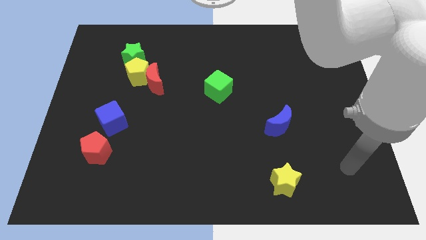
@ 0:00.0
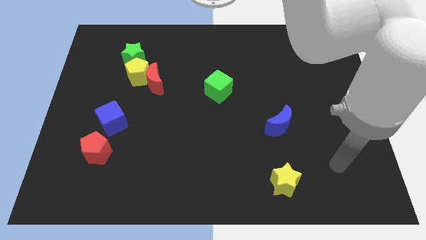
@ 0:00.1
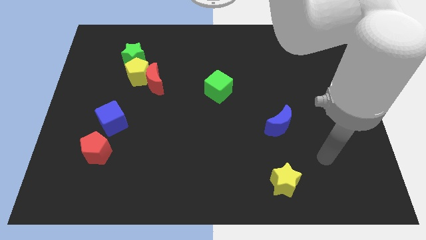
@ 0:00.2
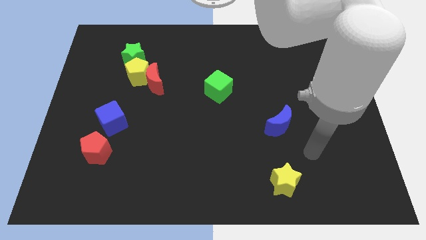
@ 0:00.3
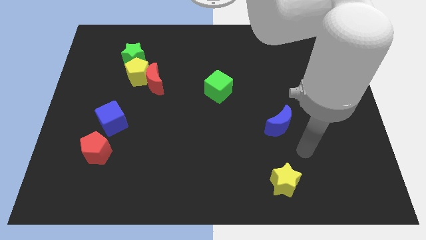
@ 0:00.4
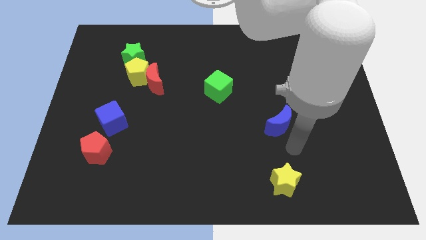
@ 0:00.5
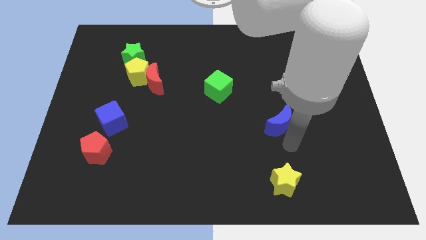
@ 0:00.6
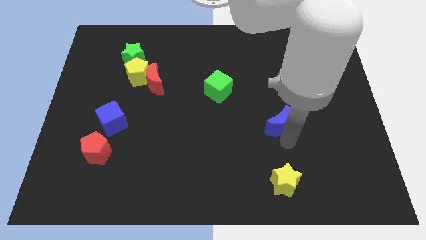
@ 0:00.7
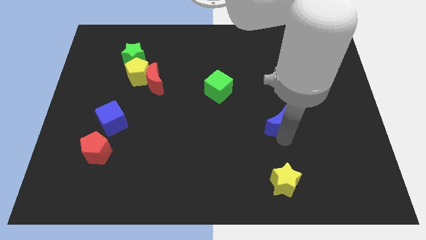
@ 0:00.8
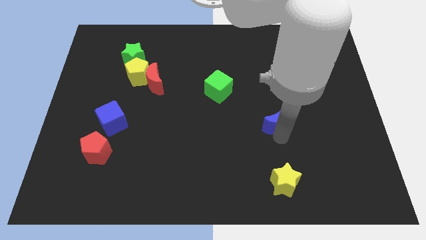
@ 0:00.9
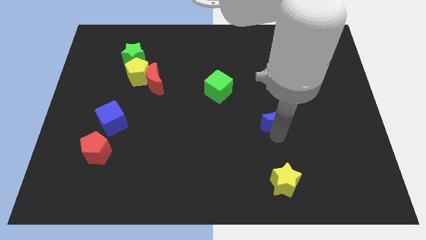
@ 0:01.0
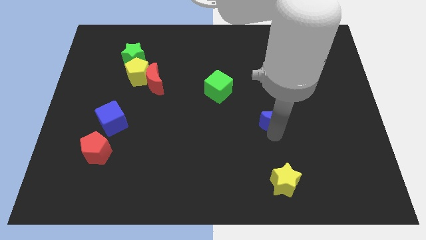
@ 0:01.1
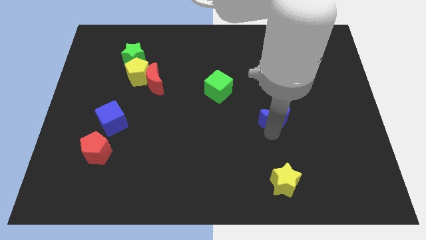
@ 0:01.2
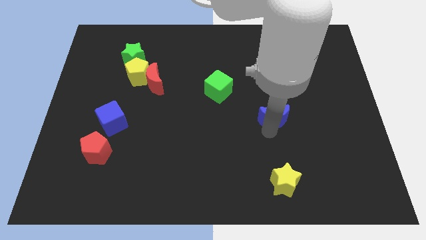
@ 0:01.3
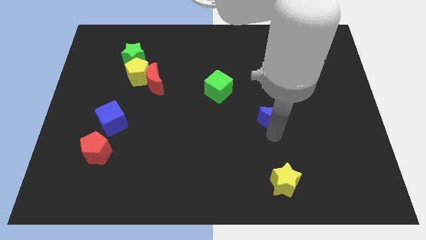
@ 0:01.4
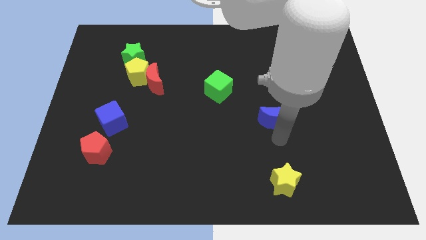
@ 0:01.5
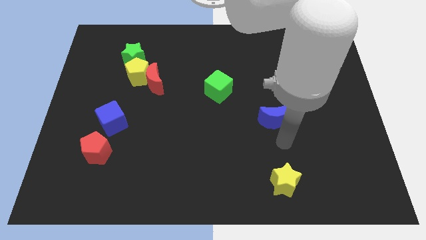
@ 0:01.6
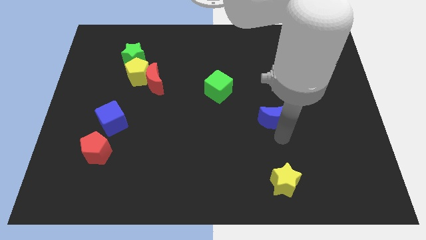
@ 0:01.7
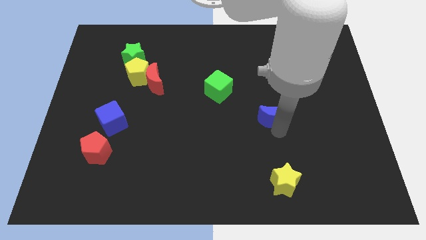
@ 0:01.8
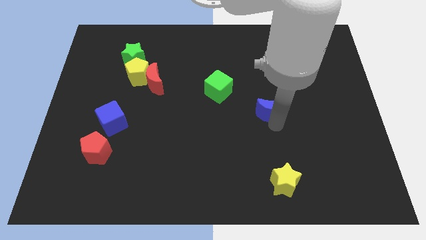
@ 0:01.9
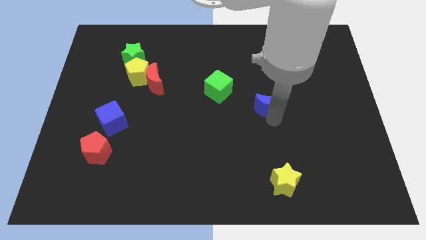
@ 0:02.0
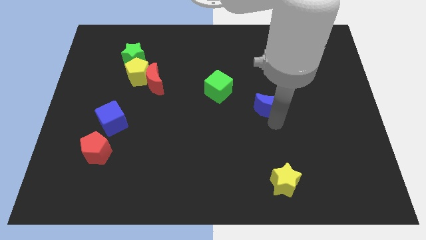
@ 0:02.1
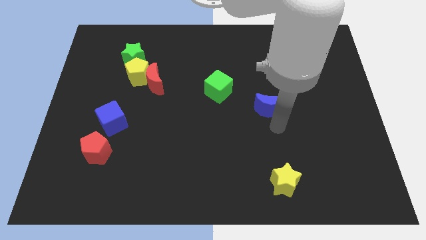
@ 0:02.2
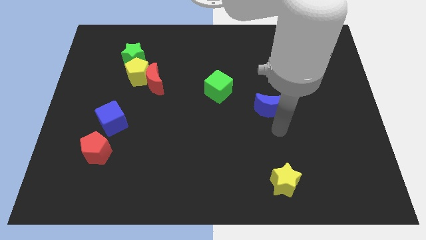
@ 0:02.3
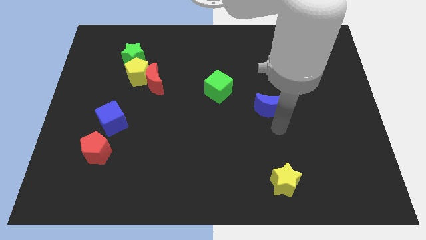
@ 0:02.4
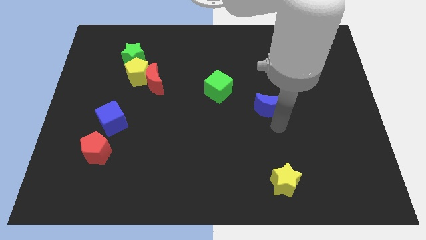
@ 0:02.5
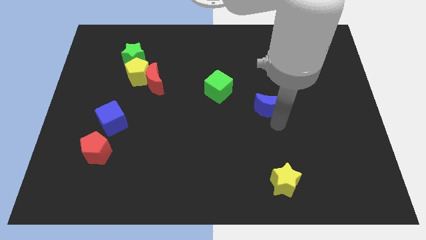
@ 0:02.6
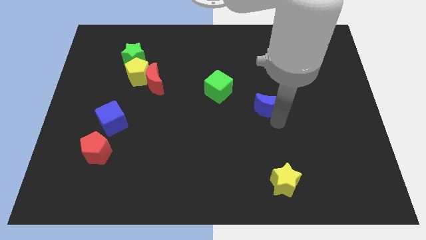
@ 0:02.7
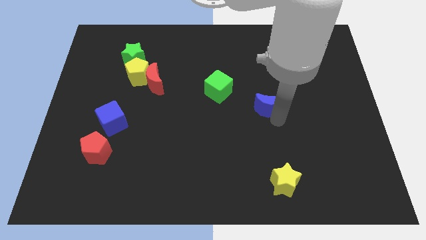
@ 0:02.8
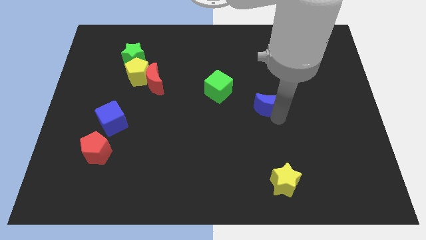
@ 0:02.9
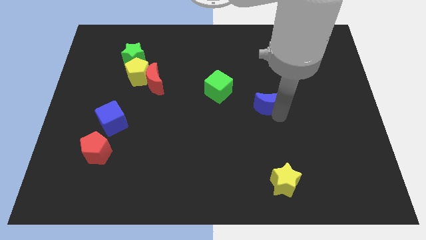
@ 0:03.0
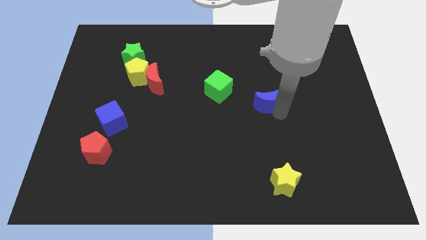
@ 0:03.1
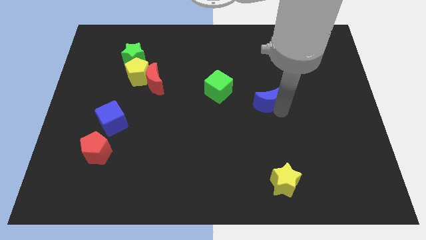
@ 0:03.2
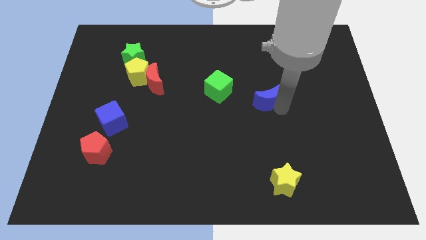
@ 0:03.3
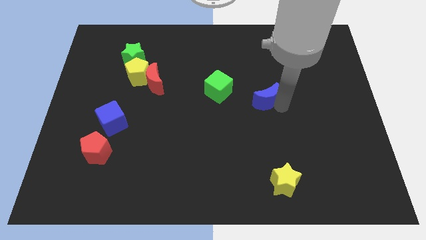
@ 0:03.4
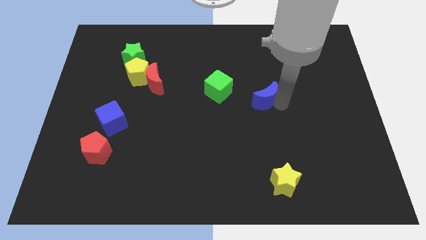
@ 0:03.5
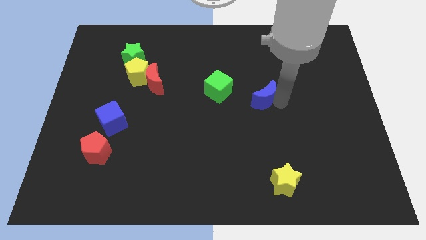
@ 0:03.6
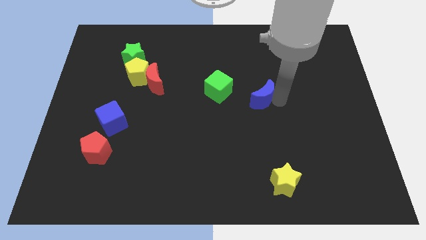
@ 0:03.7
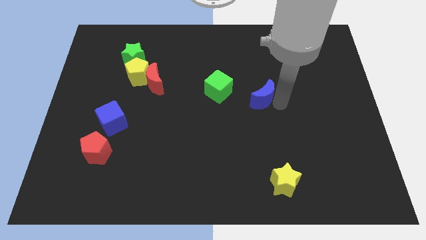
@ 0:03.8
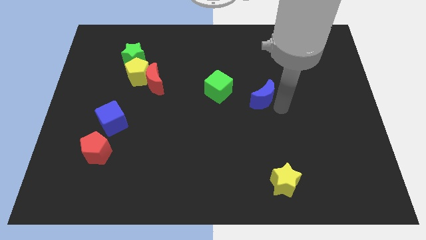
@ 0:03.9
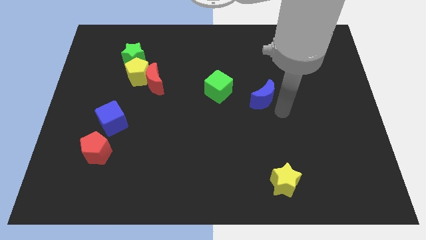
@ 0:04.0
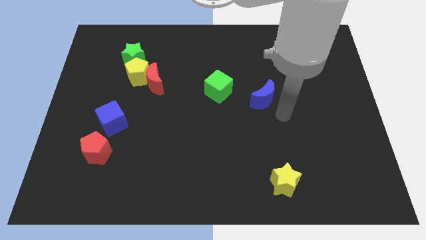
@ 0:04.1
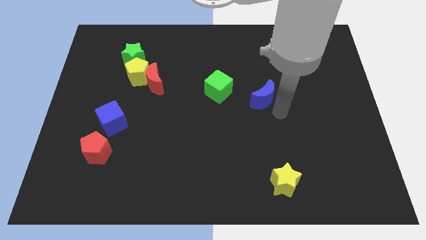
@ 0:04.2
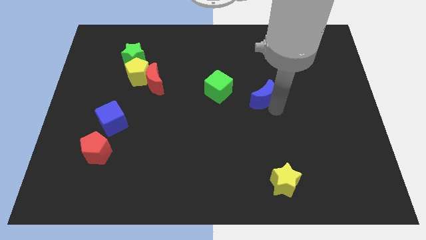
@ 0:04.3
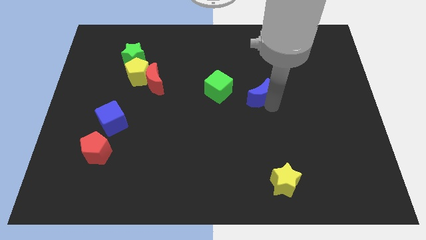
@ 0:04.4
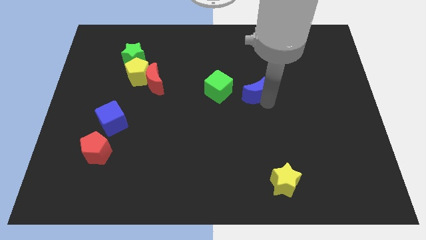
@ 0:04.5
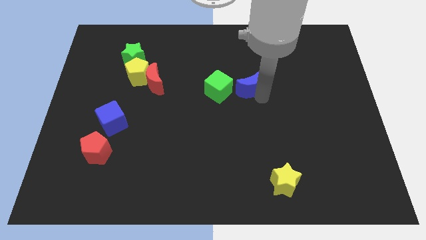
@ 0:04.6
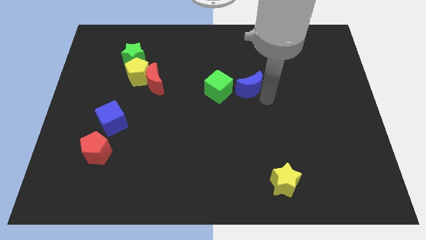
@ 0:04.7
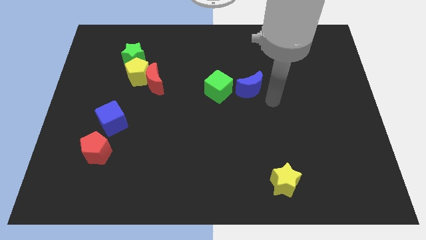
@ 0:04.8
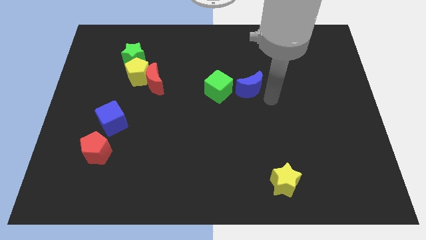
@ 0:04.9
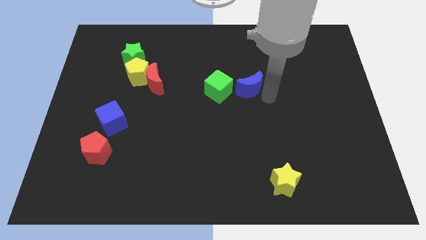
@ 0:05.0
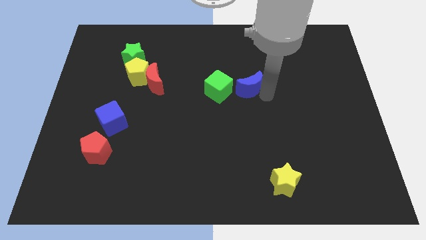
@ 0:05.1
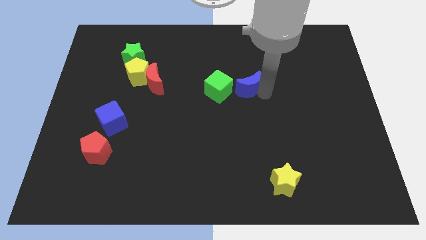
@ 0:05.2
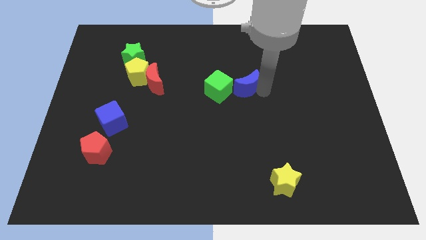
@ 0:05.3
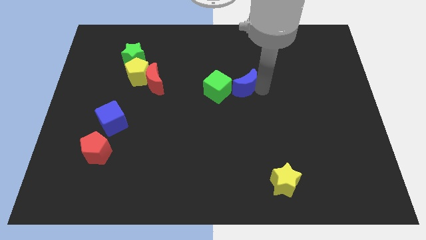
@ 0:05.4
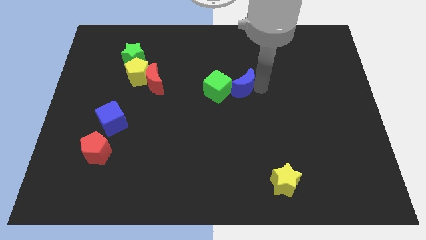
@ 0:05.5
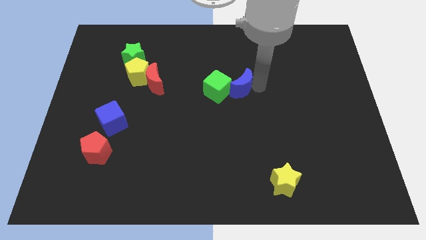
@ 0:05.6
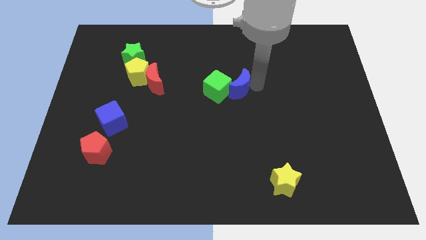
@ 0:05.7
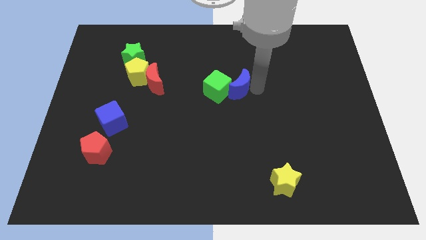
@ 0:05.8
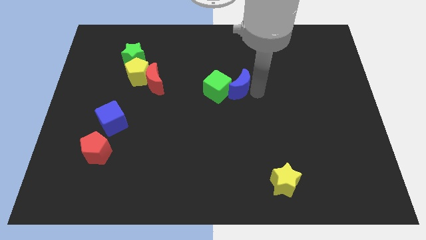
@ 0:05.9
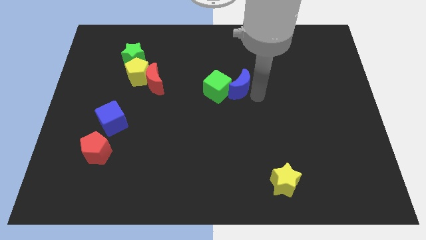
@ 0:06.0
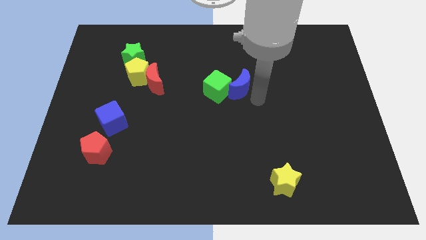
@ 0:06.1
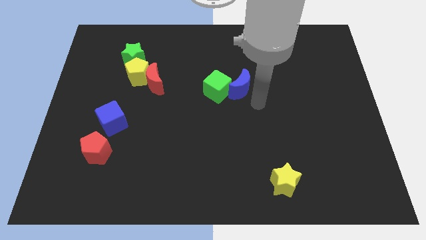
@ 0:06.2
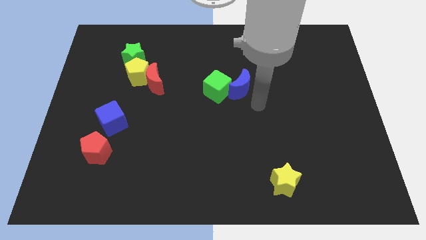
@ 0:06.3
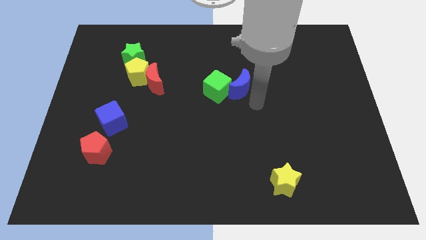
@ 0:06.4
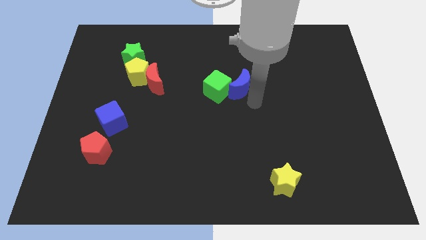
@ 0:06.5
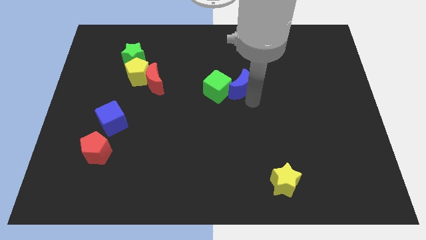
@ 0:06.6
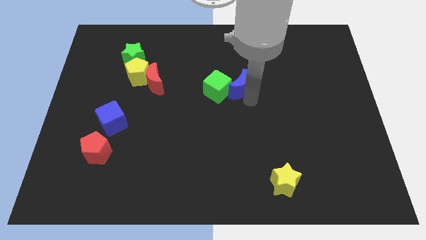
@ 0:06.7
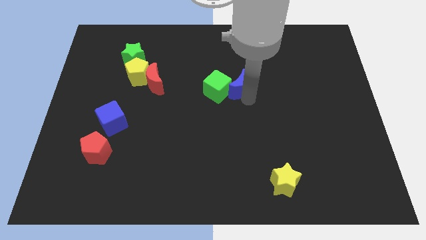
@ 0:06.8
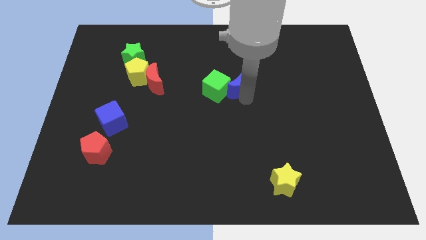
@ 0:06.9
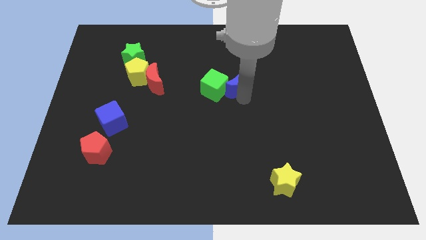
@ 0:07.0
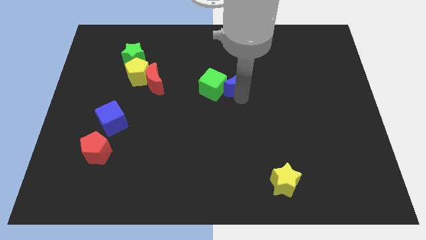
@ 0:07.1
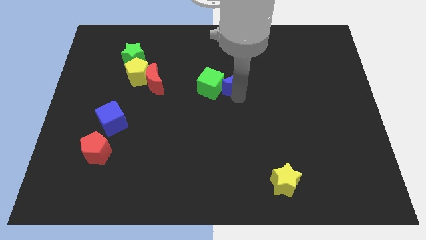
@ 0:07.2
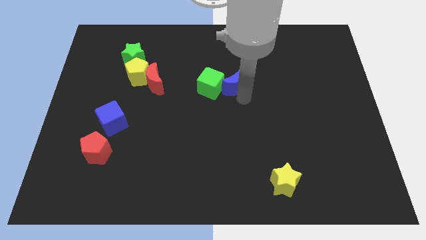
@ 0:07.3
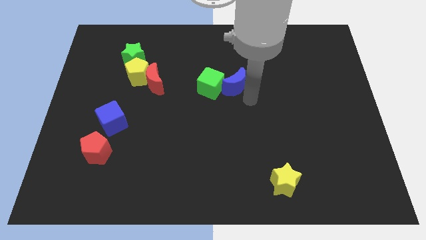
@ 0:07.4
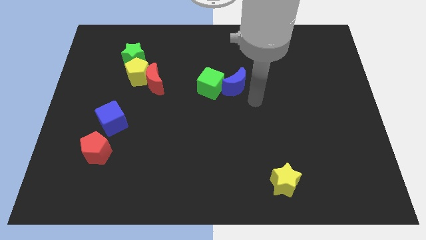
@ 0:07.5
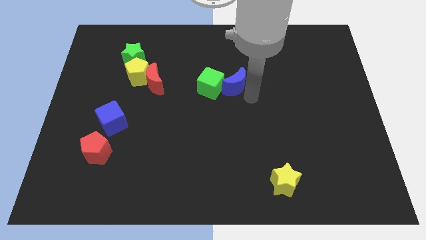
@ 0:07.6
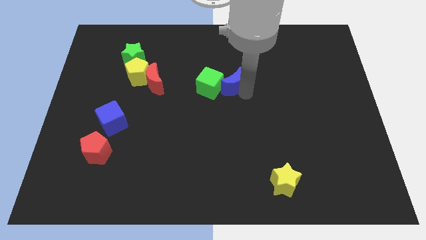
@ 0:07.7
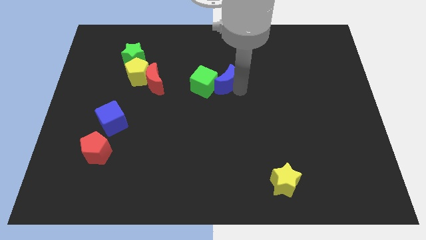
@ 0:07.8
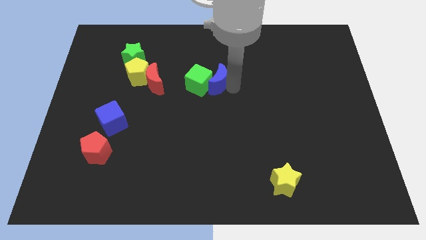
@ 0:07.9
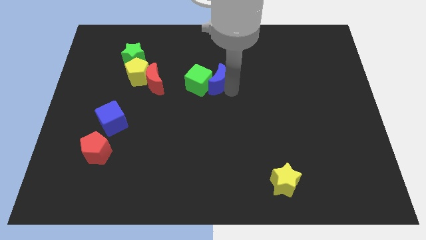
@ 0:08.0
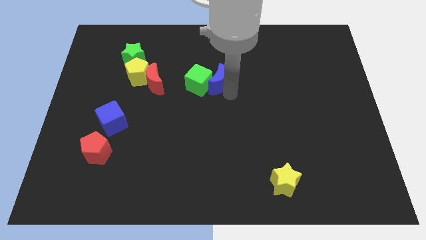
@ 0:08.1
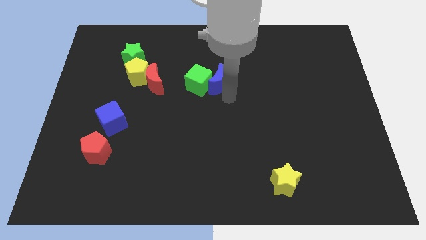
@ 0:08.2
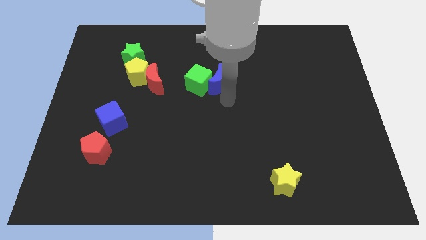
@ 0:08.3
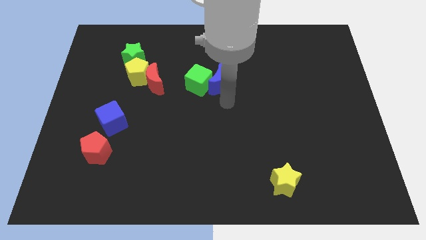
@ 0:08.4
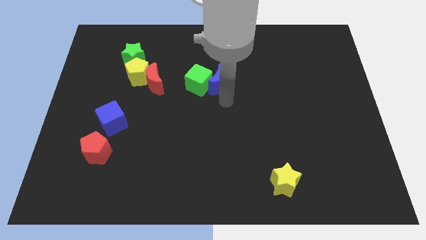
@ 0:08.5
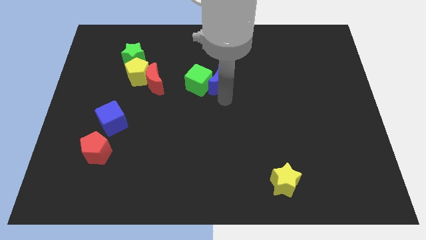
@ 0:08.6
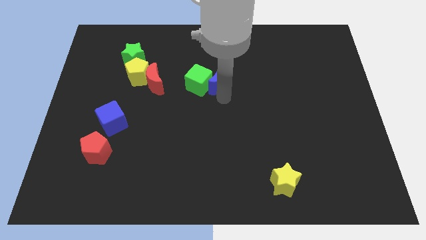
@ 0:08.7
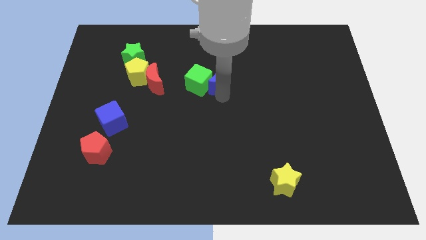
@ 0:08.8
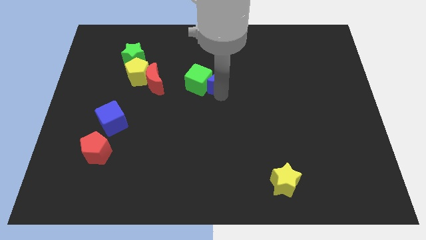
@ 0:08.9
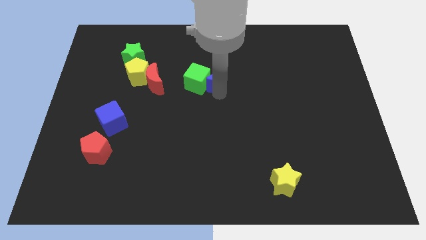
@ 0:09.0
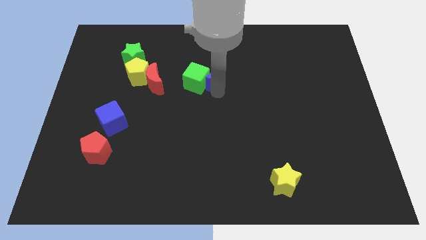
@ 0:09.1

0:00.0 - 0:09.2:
move the blue moon diagonally up and left
